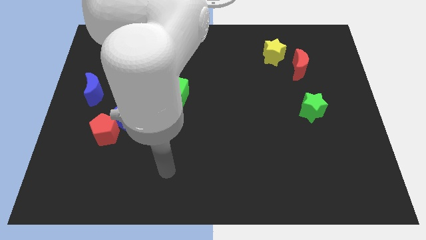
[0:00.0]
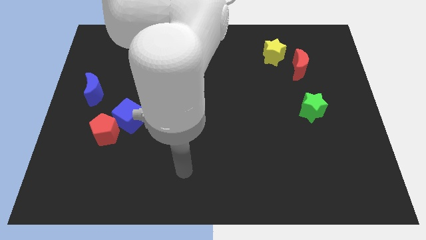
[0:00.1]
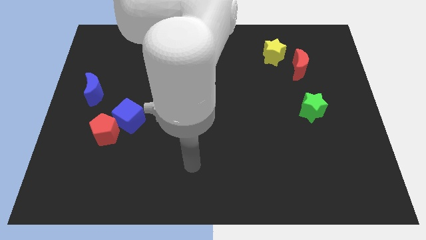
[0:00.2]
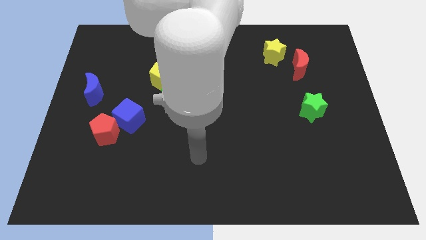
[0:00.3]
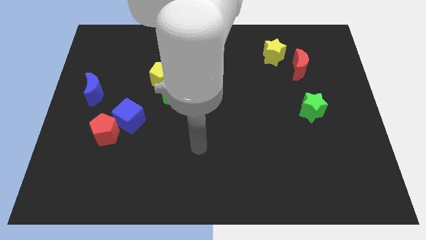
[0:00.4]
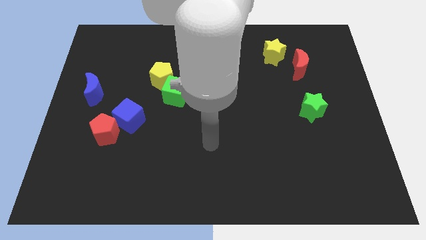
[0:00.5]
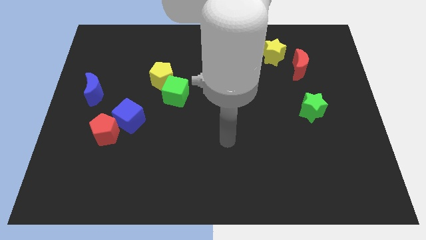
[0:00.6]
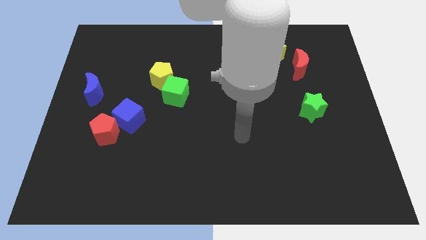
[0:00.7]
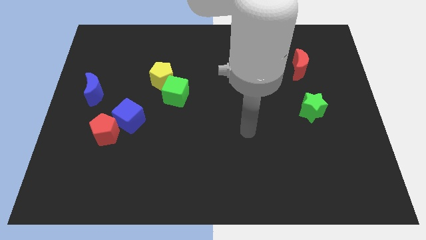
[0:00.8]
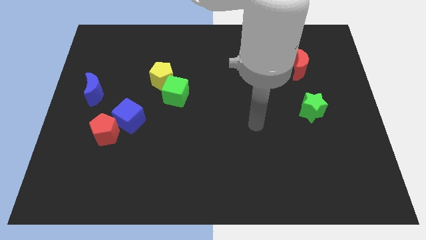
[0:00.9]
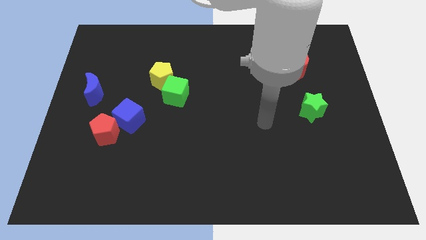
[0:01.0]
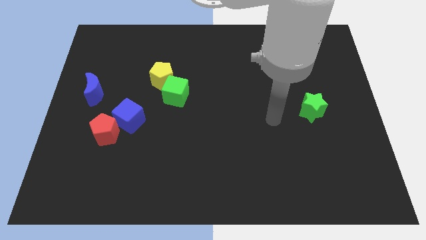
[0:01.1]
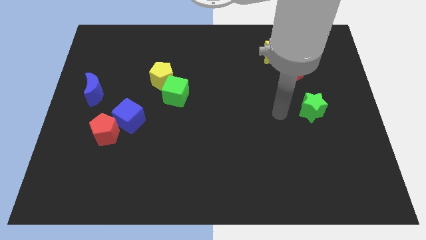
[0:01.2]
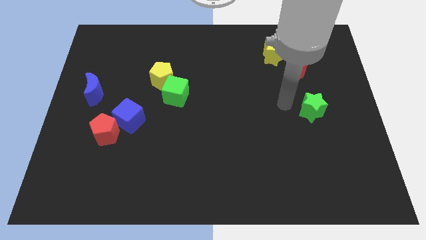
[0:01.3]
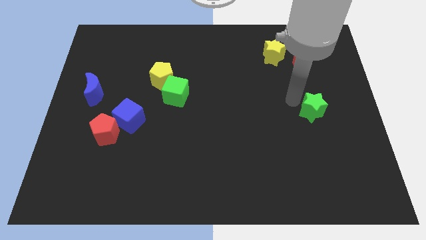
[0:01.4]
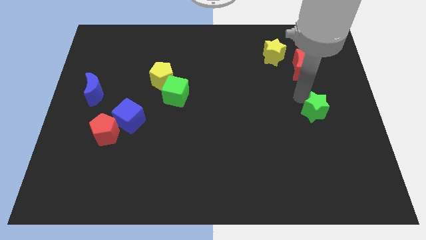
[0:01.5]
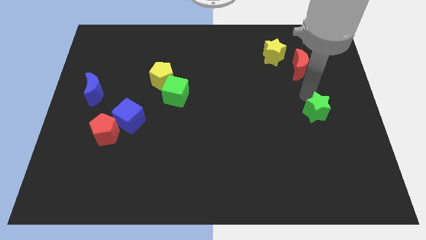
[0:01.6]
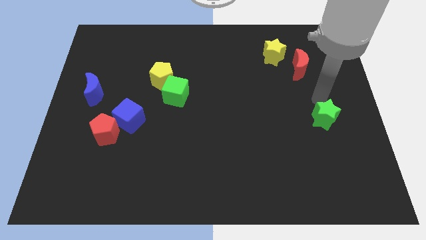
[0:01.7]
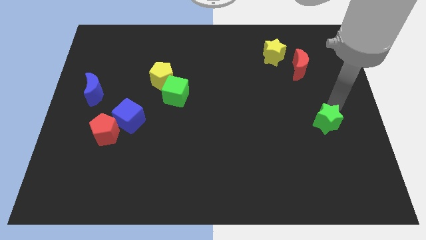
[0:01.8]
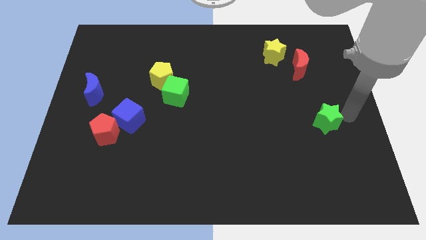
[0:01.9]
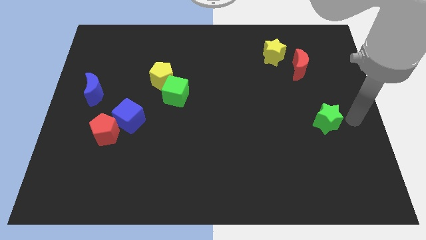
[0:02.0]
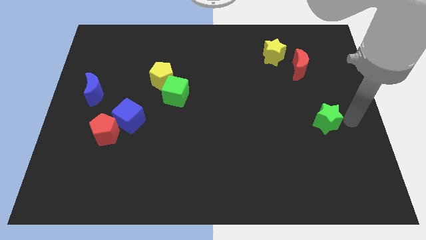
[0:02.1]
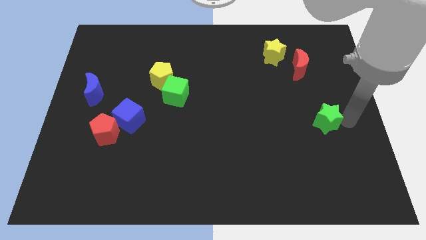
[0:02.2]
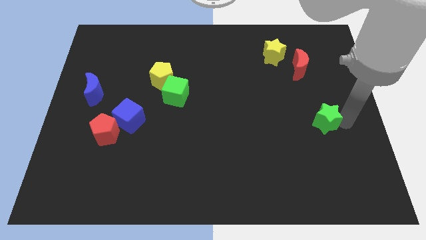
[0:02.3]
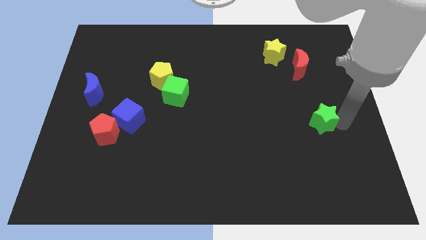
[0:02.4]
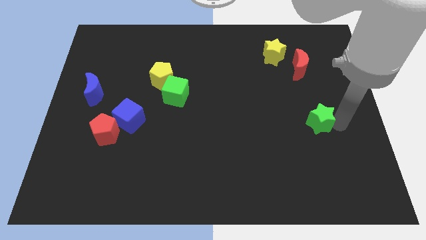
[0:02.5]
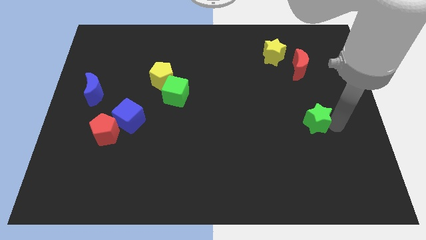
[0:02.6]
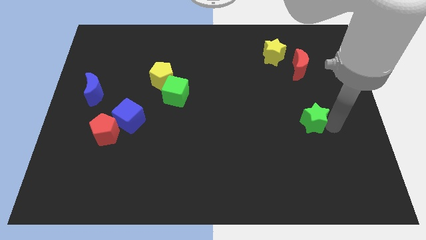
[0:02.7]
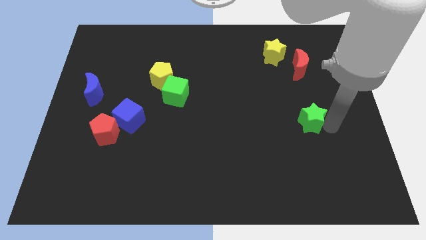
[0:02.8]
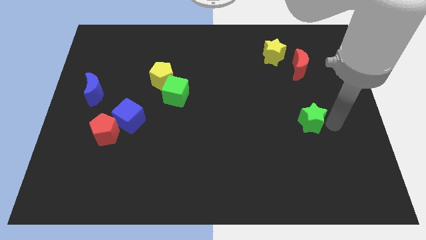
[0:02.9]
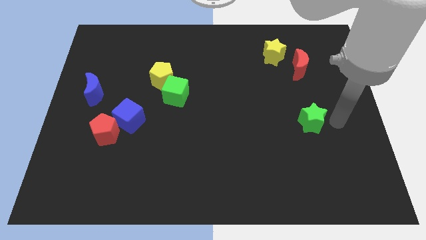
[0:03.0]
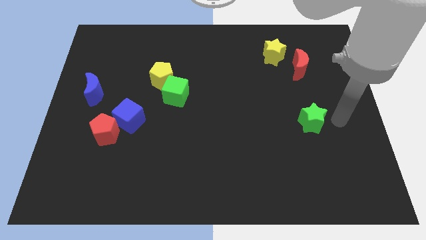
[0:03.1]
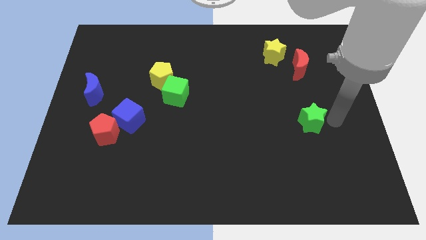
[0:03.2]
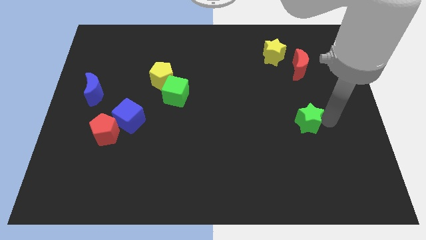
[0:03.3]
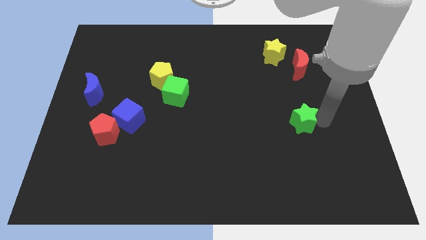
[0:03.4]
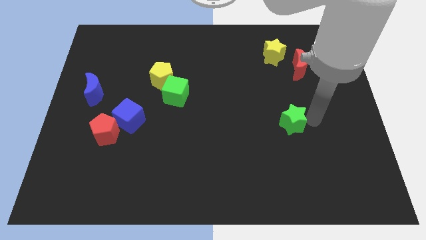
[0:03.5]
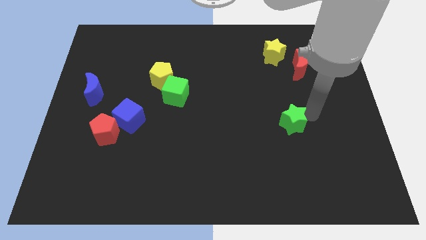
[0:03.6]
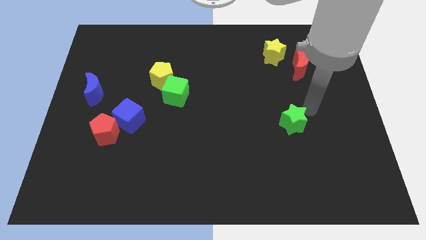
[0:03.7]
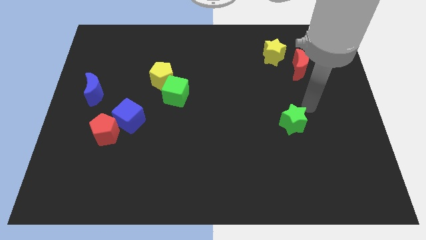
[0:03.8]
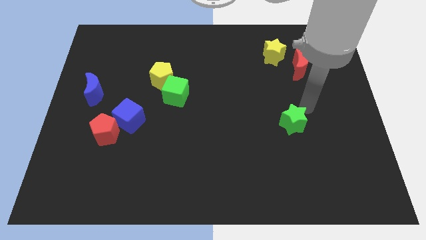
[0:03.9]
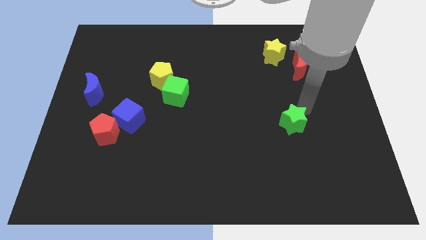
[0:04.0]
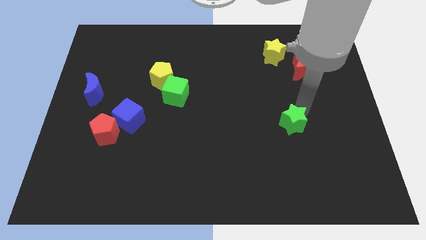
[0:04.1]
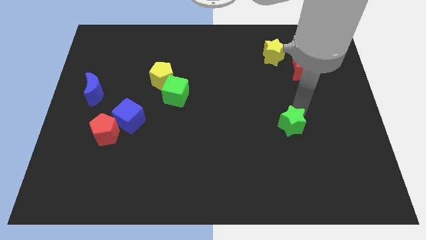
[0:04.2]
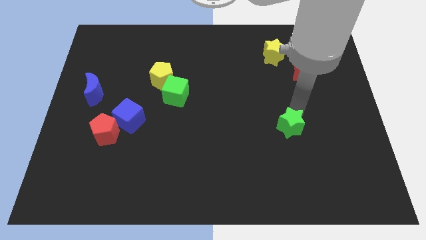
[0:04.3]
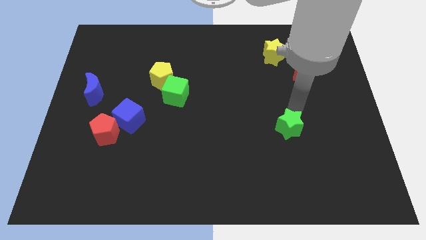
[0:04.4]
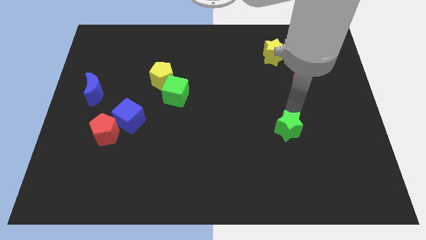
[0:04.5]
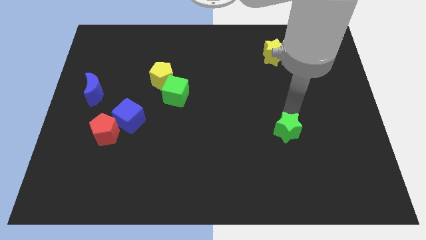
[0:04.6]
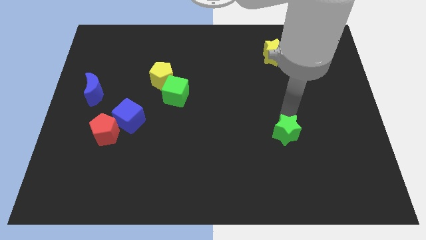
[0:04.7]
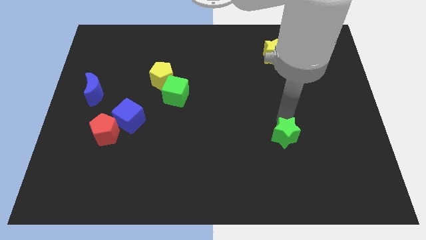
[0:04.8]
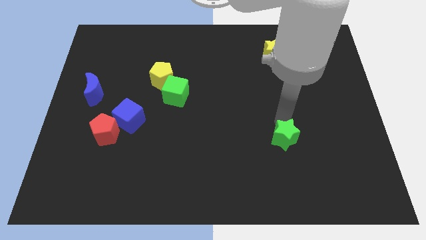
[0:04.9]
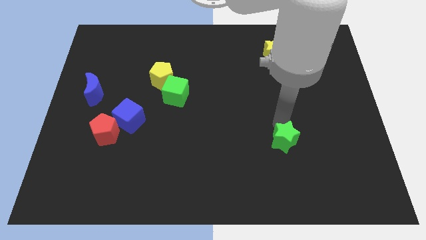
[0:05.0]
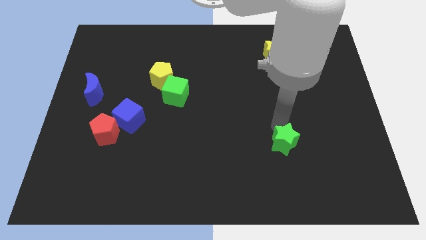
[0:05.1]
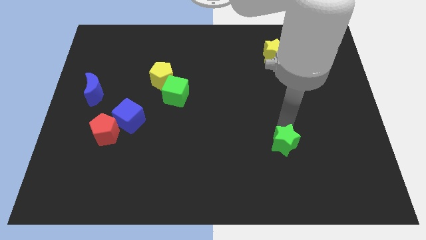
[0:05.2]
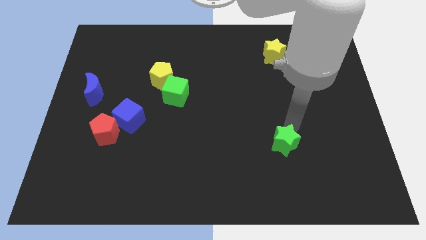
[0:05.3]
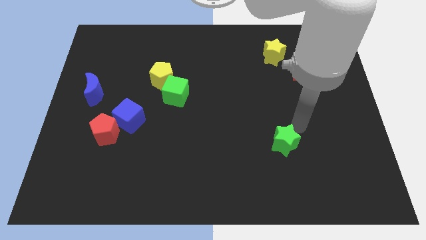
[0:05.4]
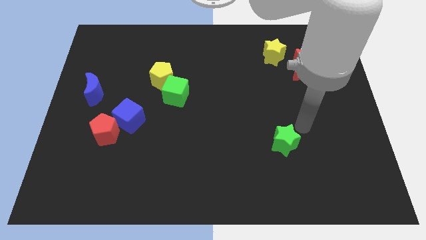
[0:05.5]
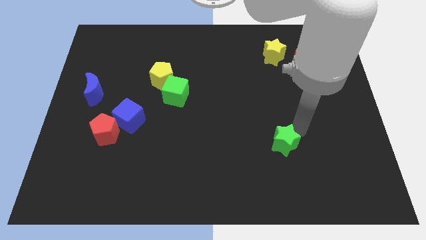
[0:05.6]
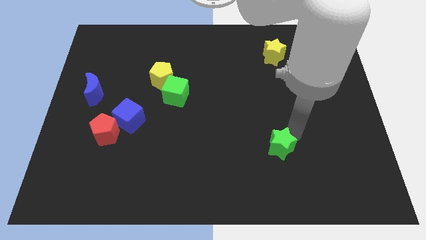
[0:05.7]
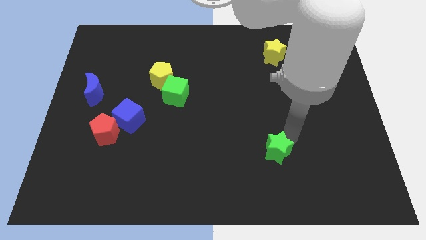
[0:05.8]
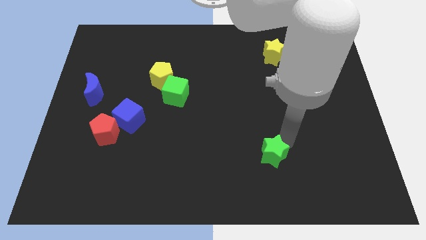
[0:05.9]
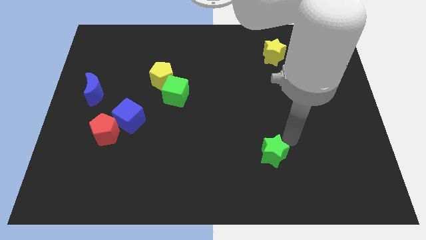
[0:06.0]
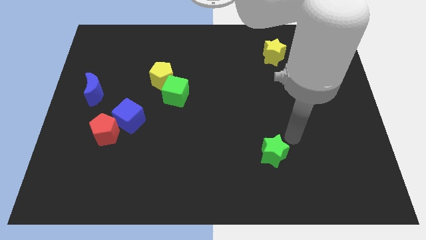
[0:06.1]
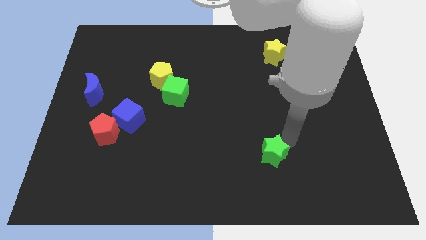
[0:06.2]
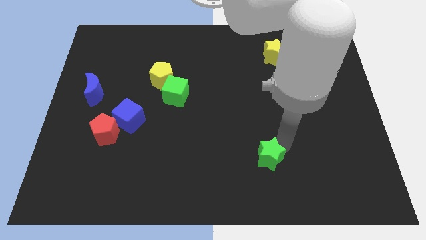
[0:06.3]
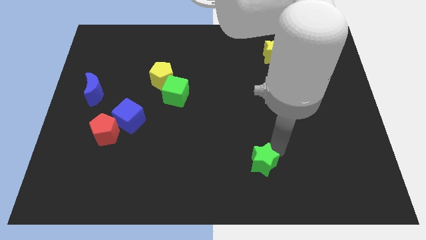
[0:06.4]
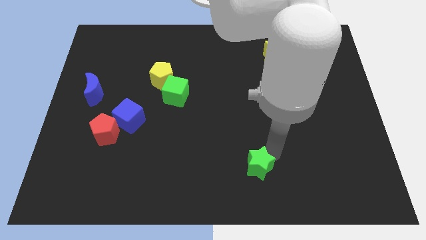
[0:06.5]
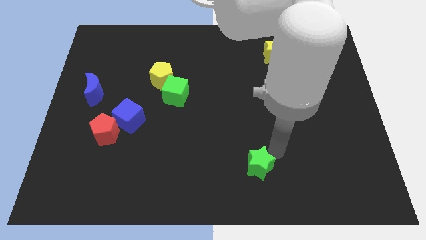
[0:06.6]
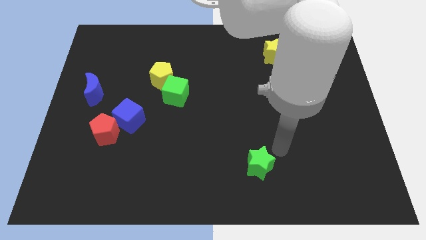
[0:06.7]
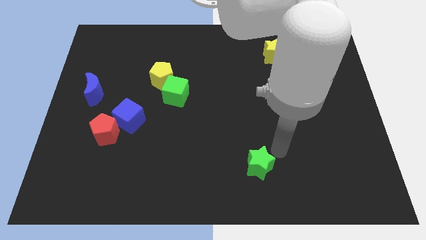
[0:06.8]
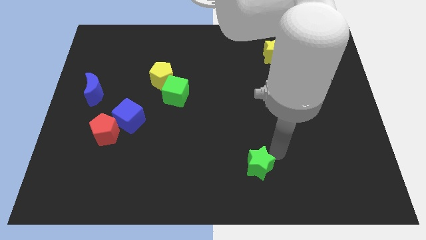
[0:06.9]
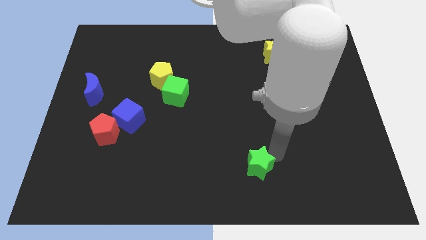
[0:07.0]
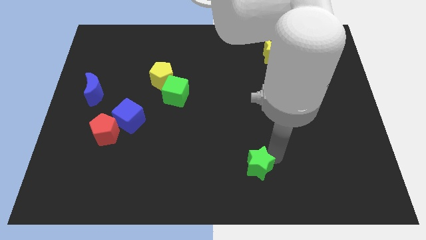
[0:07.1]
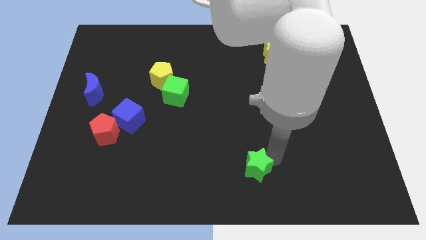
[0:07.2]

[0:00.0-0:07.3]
slide the green star to the bottom
